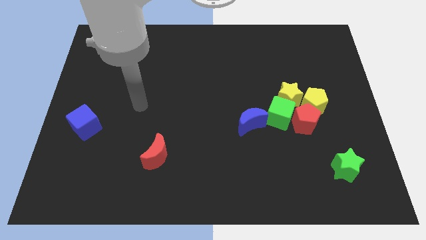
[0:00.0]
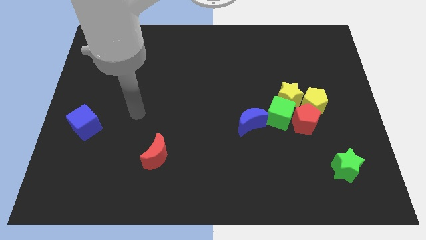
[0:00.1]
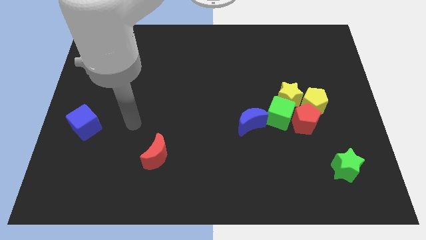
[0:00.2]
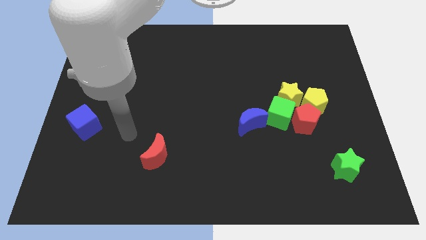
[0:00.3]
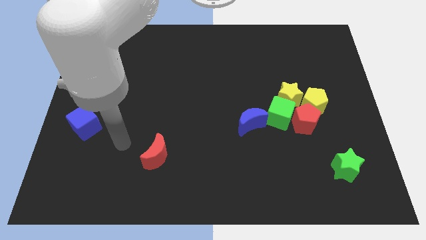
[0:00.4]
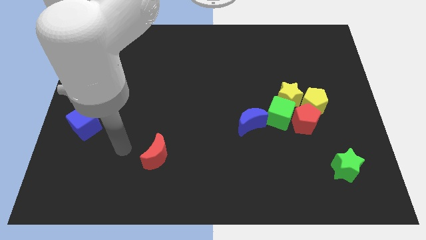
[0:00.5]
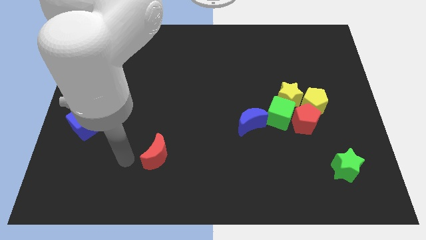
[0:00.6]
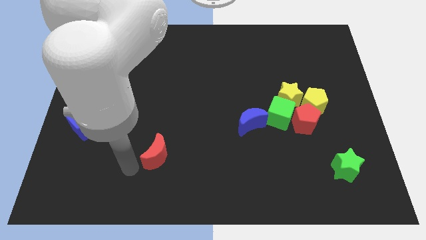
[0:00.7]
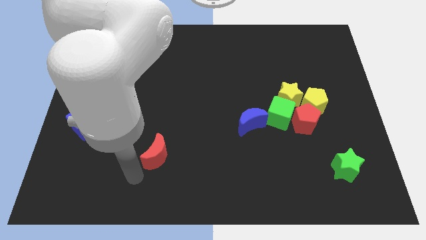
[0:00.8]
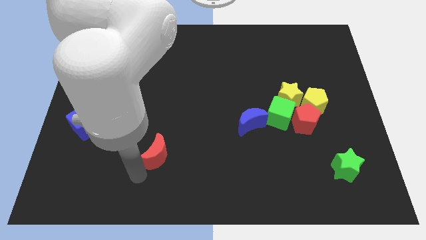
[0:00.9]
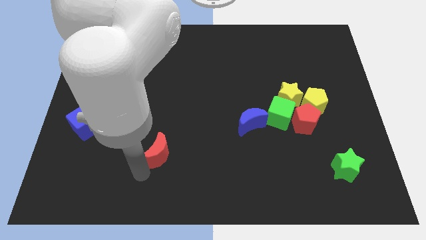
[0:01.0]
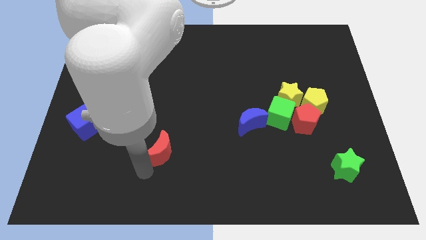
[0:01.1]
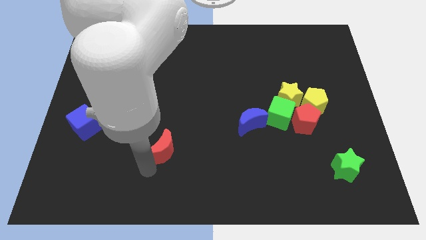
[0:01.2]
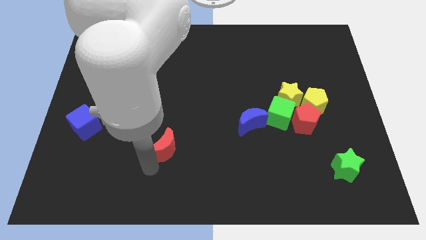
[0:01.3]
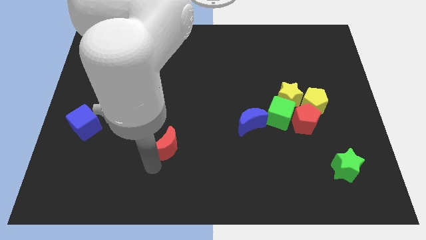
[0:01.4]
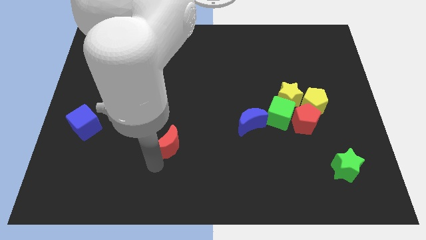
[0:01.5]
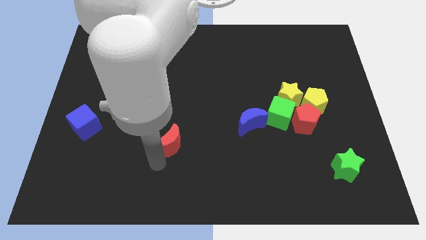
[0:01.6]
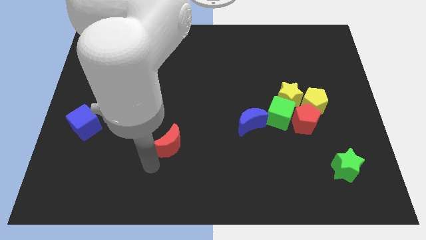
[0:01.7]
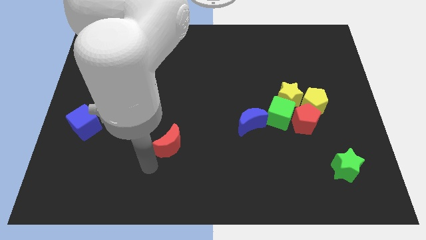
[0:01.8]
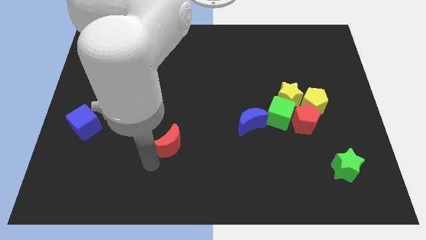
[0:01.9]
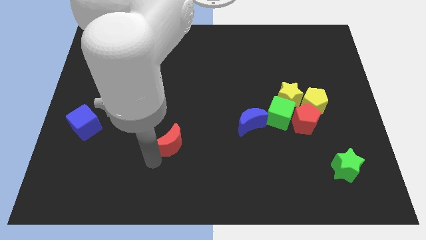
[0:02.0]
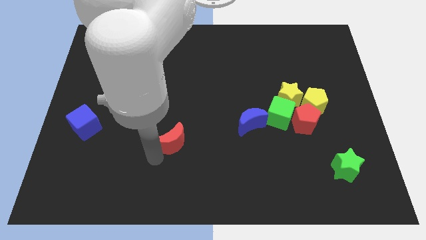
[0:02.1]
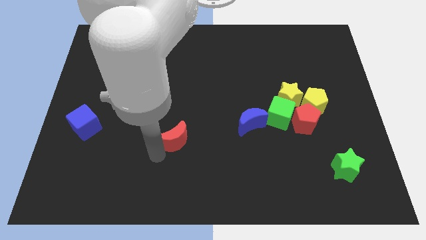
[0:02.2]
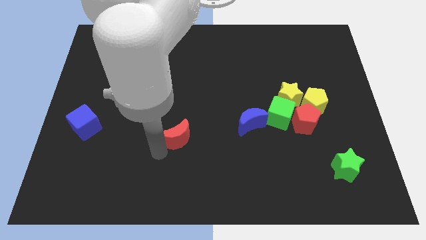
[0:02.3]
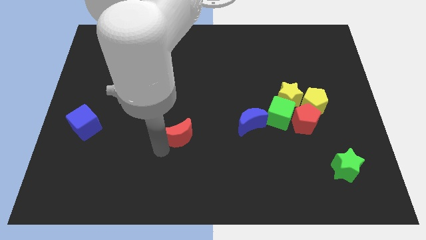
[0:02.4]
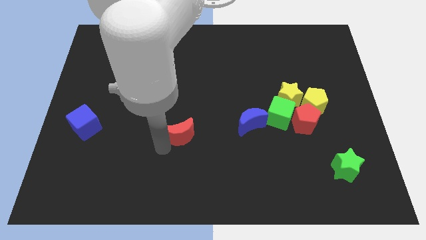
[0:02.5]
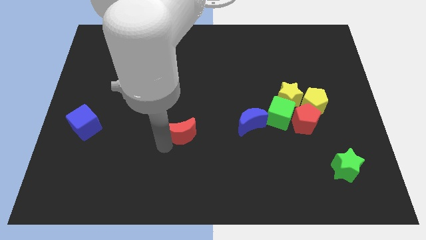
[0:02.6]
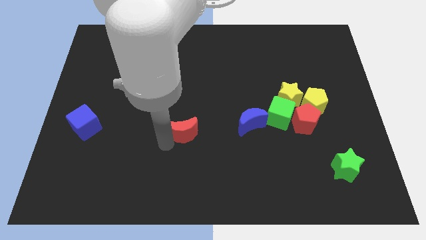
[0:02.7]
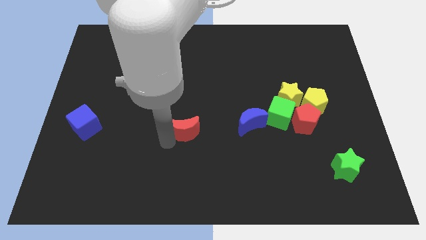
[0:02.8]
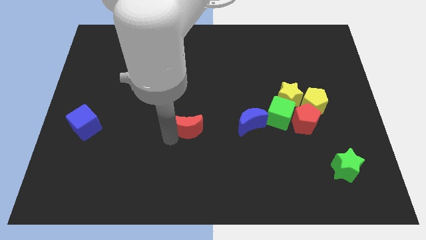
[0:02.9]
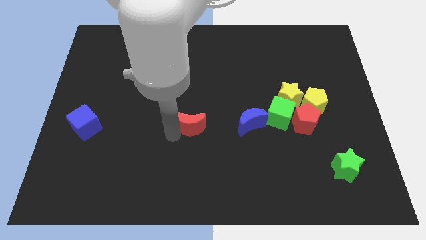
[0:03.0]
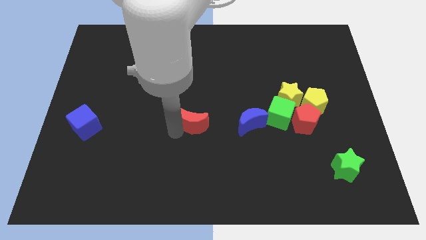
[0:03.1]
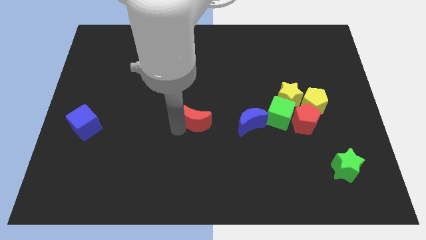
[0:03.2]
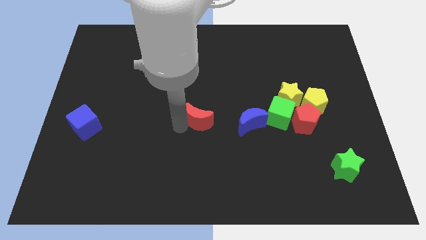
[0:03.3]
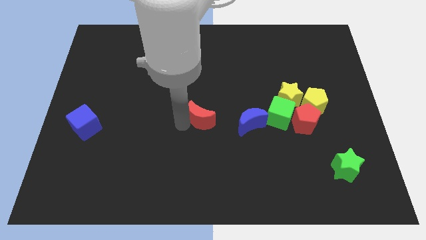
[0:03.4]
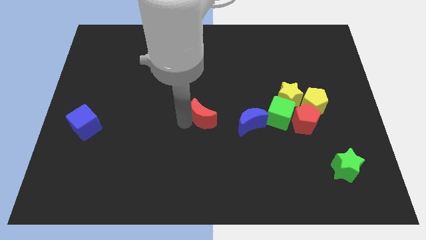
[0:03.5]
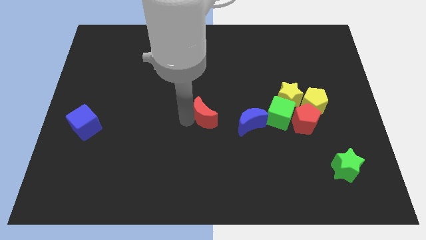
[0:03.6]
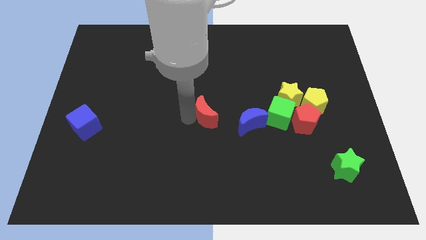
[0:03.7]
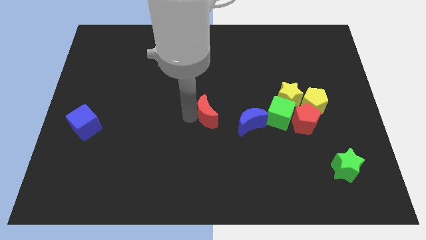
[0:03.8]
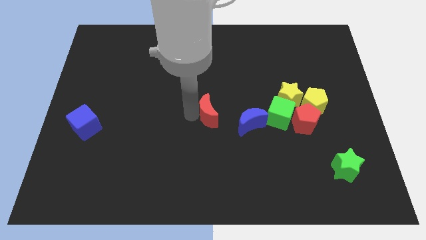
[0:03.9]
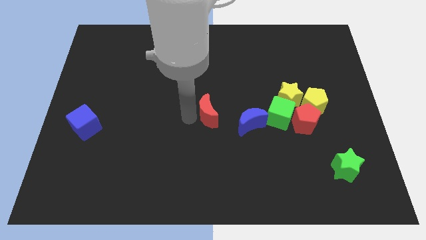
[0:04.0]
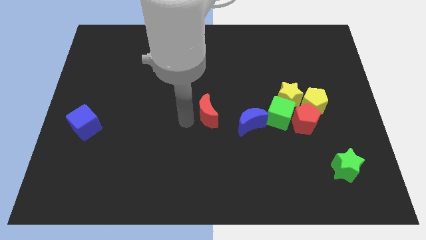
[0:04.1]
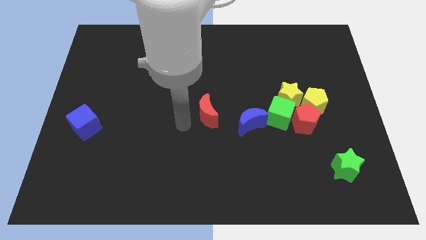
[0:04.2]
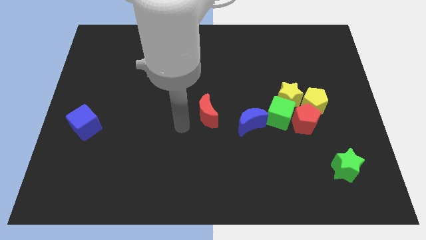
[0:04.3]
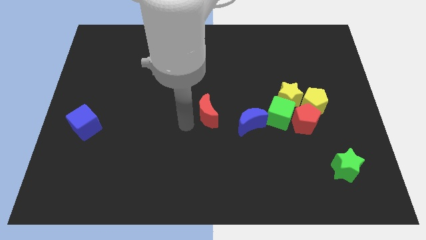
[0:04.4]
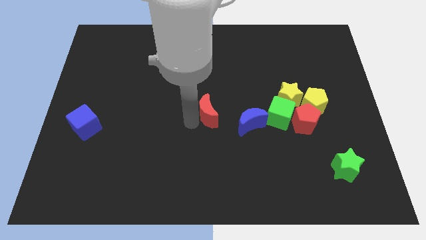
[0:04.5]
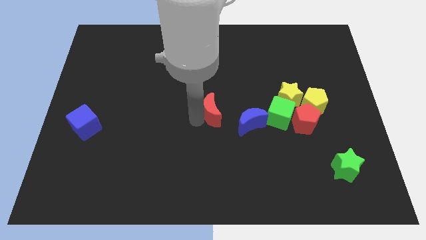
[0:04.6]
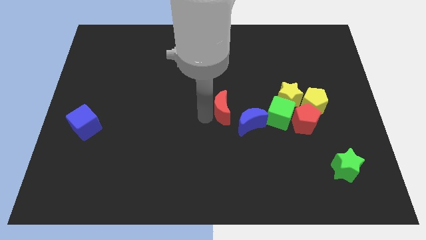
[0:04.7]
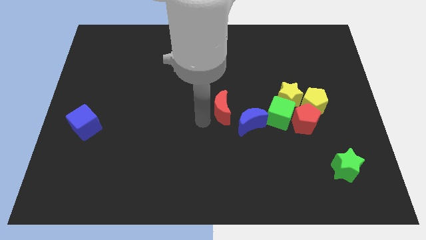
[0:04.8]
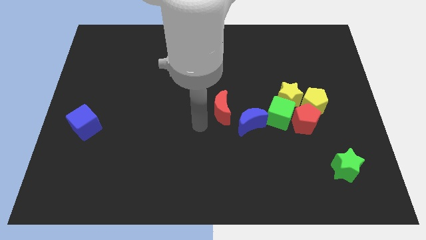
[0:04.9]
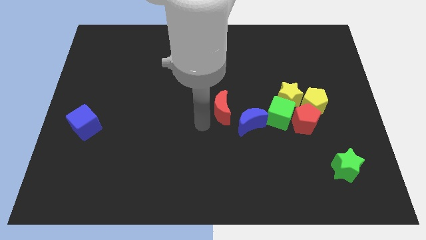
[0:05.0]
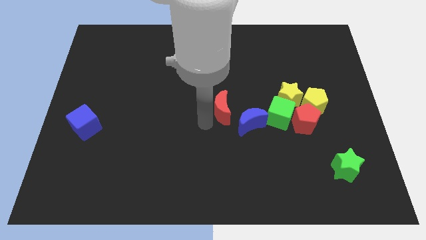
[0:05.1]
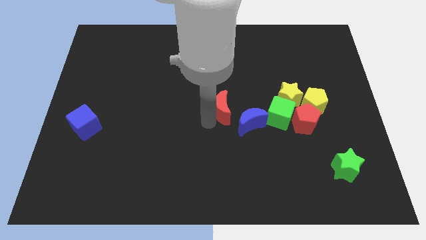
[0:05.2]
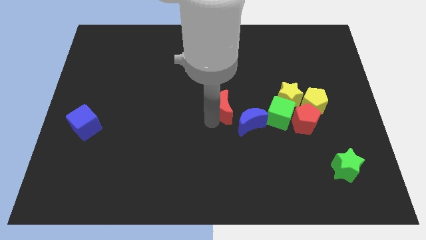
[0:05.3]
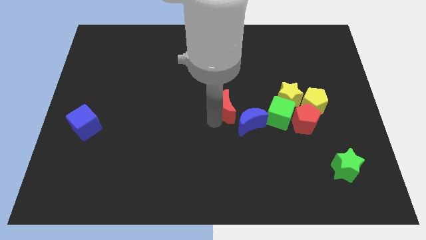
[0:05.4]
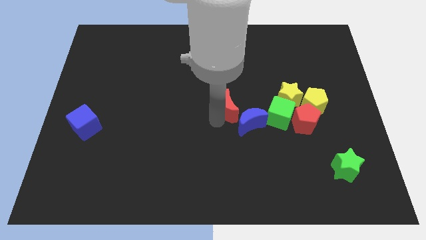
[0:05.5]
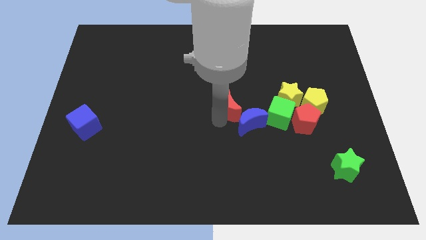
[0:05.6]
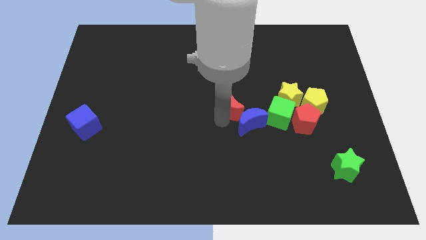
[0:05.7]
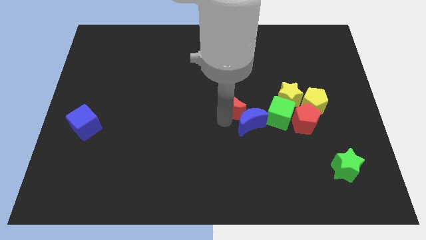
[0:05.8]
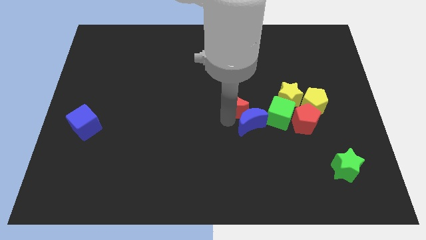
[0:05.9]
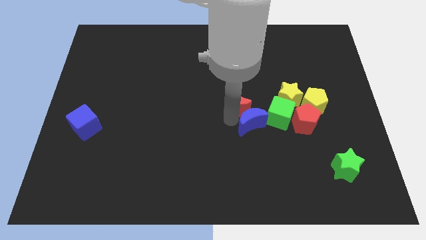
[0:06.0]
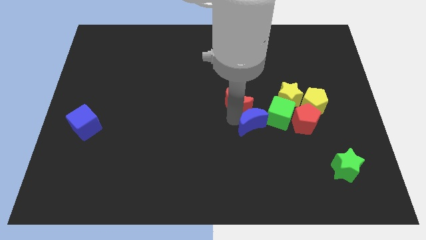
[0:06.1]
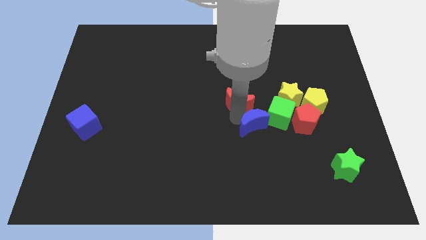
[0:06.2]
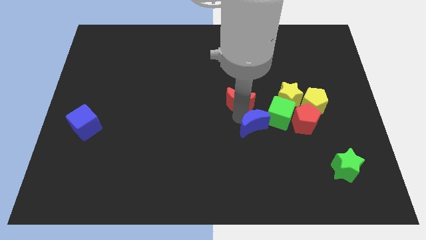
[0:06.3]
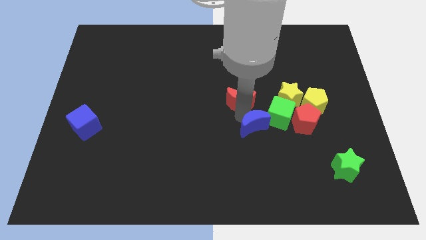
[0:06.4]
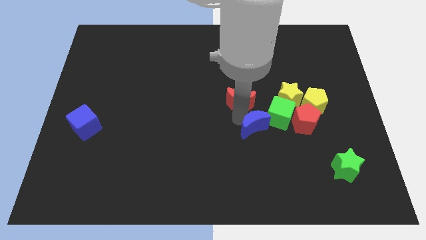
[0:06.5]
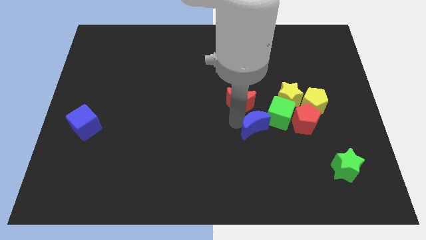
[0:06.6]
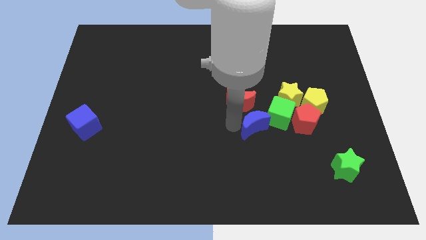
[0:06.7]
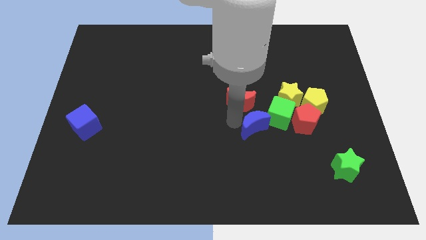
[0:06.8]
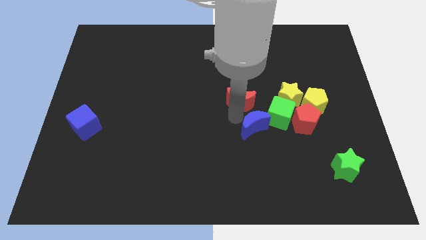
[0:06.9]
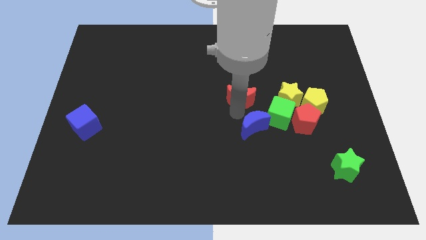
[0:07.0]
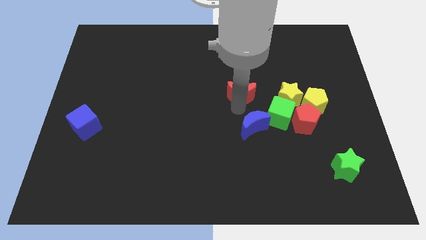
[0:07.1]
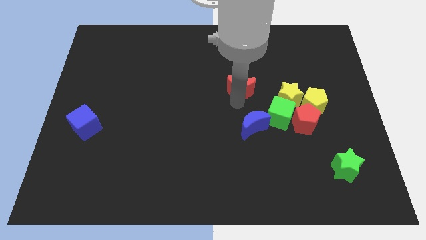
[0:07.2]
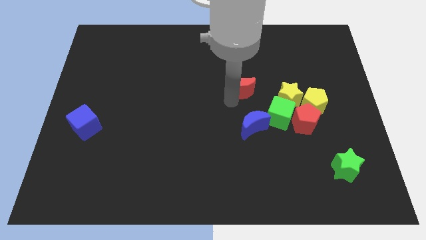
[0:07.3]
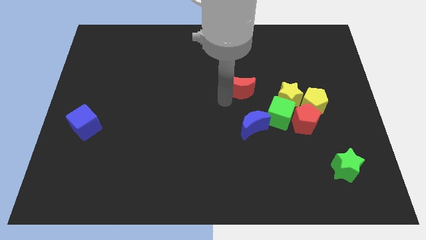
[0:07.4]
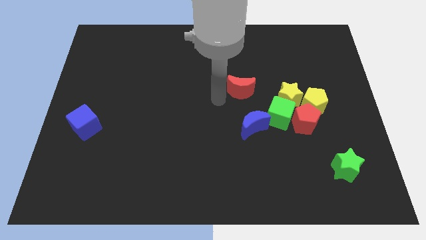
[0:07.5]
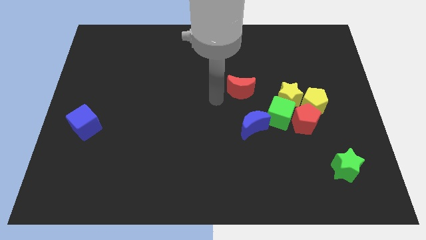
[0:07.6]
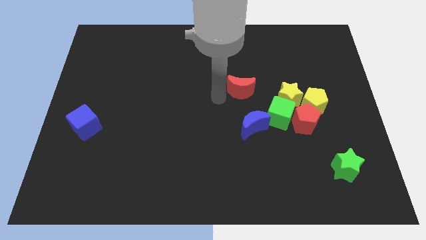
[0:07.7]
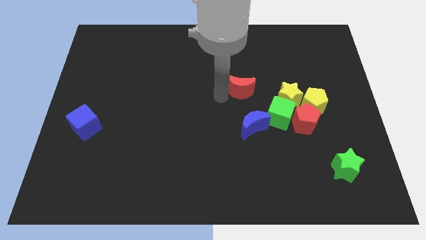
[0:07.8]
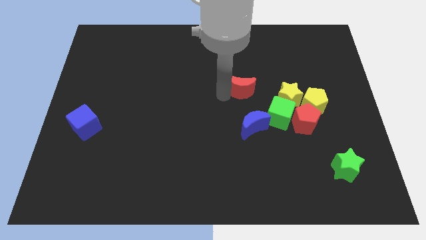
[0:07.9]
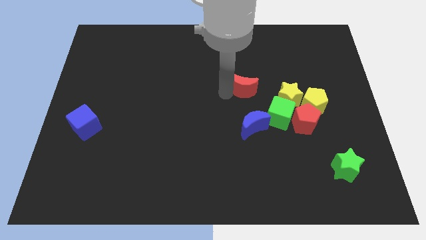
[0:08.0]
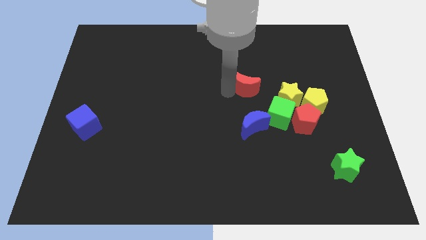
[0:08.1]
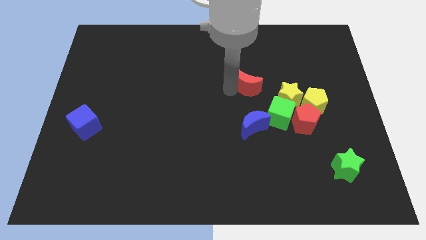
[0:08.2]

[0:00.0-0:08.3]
move the red moon to the top left of the yellow star
